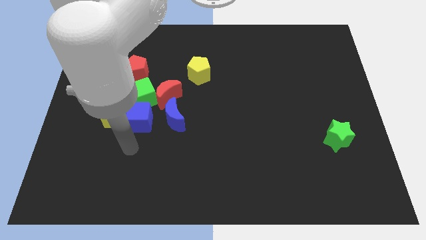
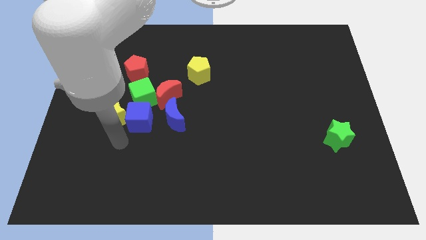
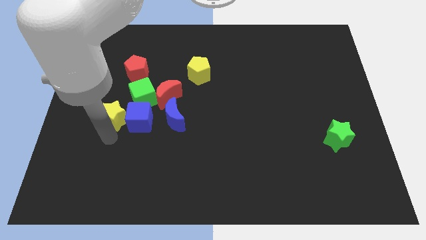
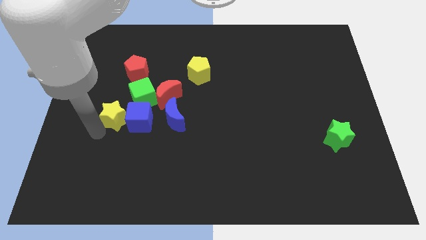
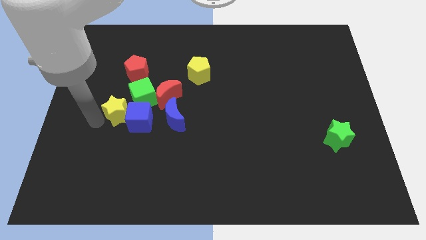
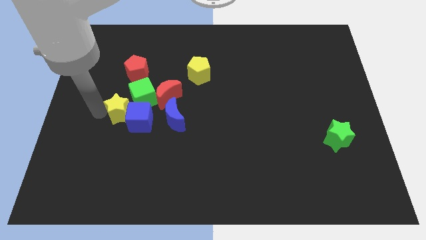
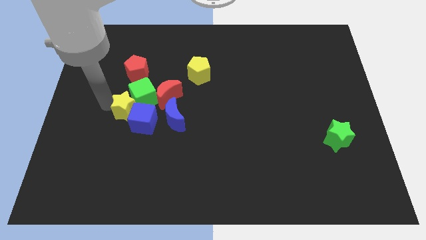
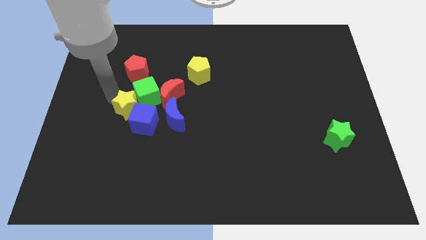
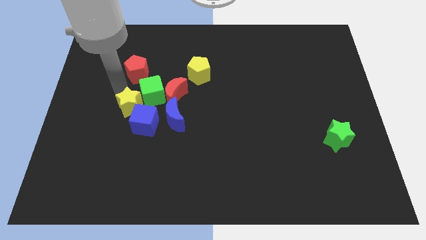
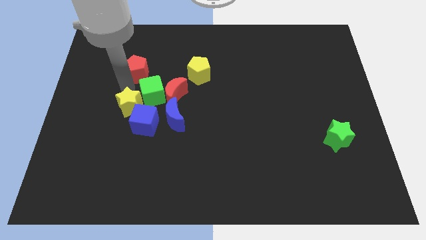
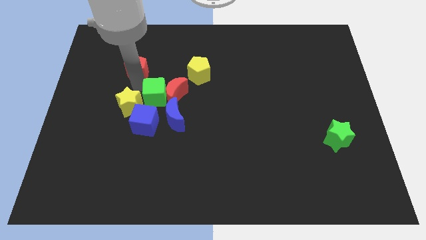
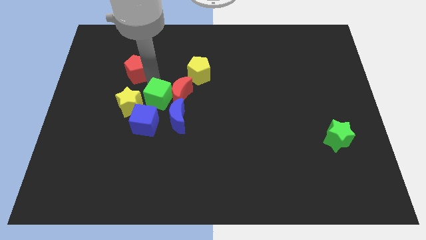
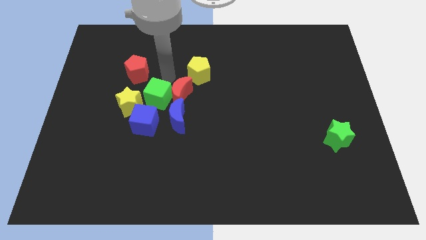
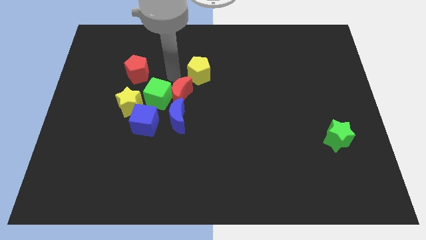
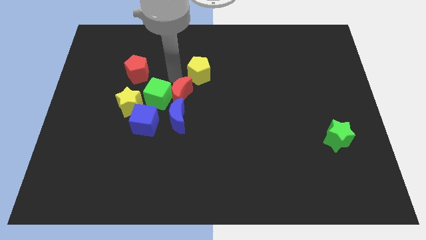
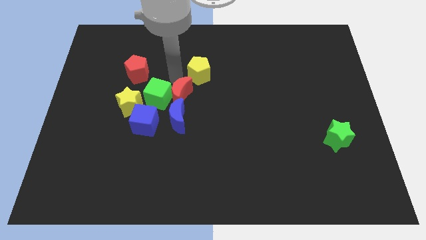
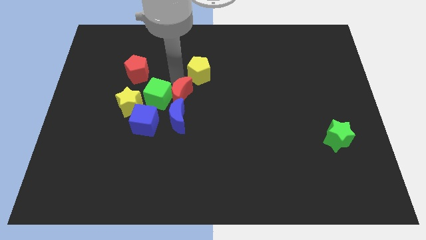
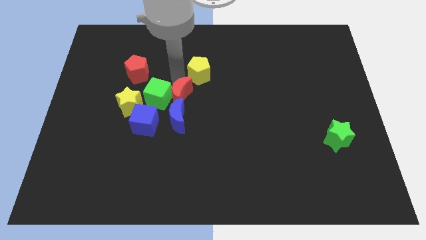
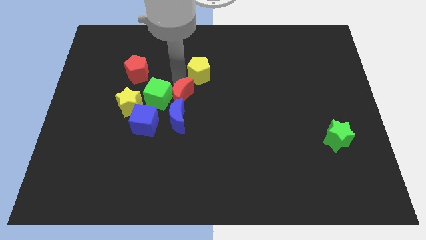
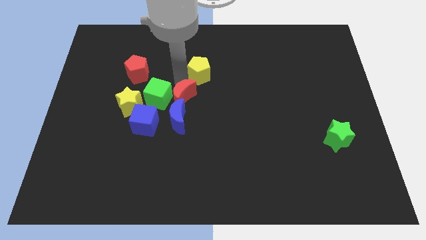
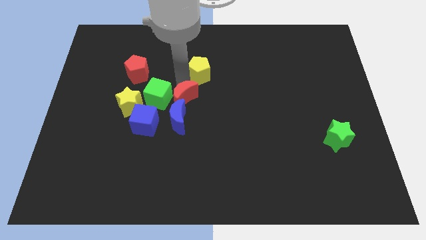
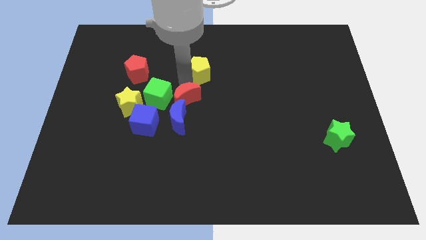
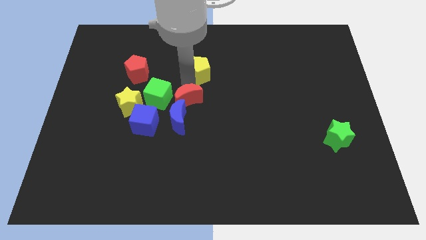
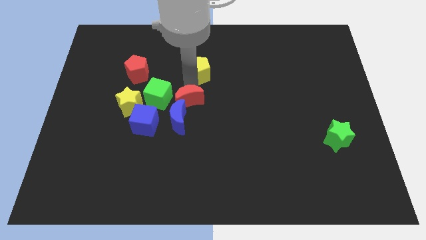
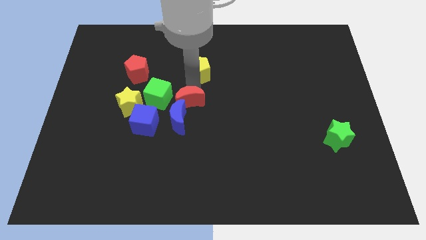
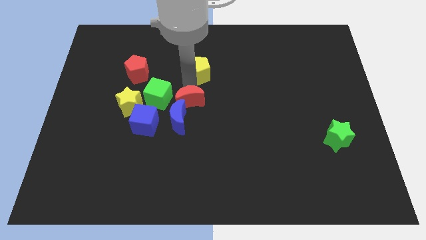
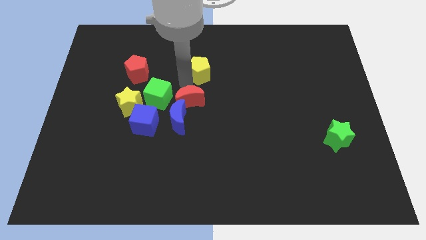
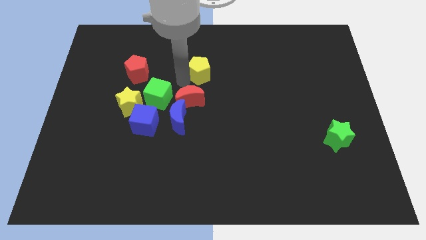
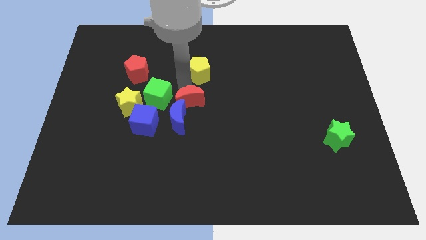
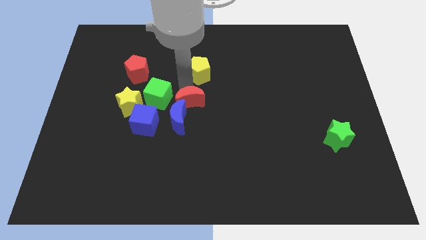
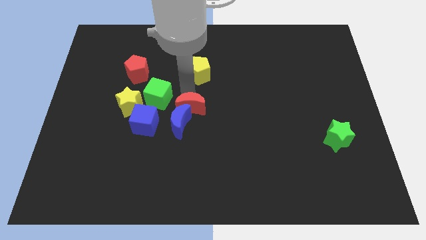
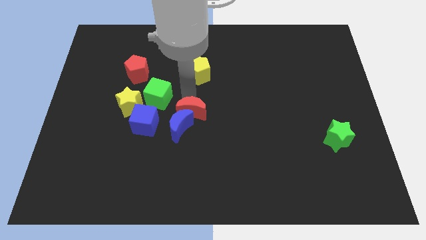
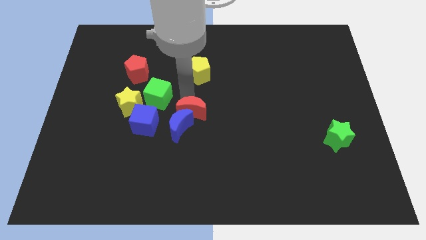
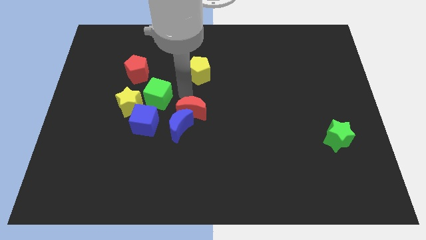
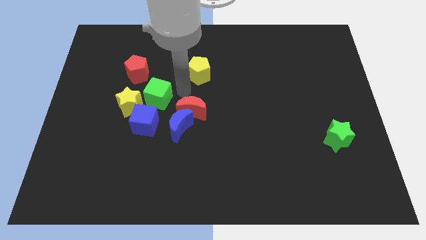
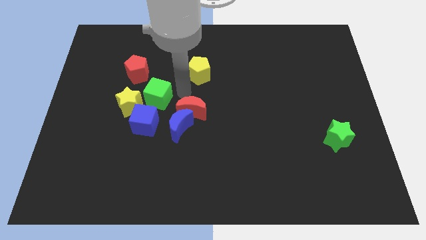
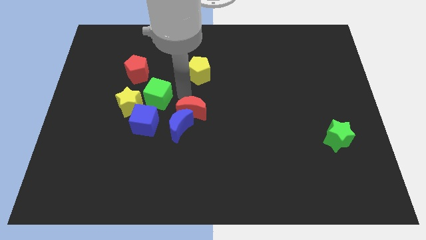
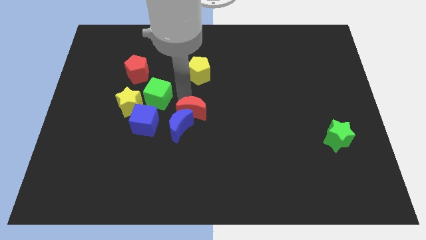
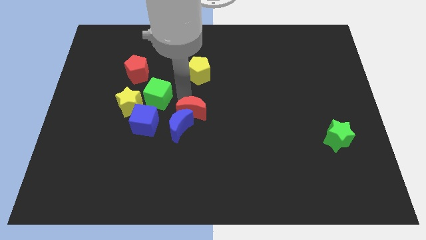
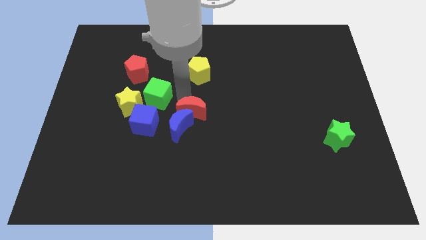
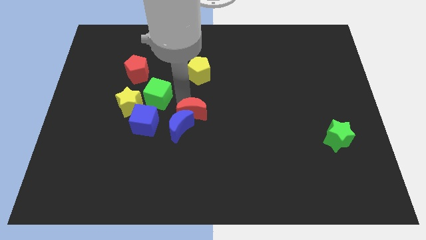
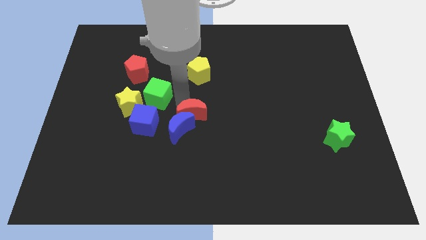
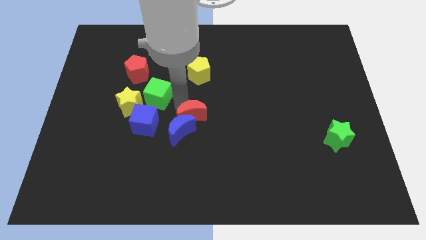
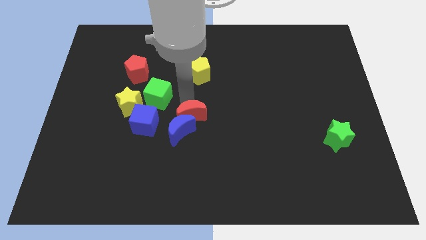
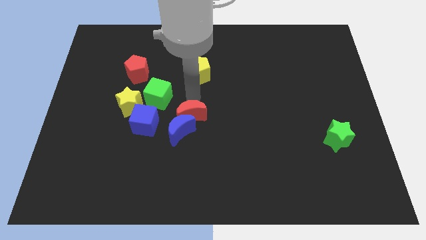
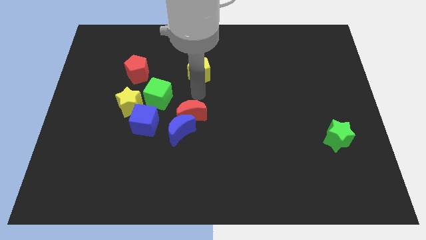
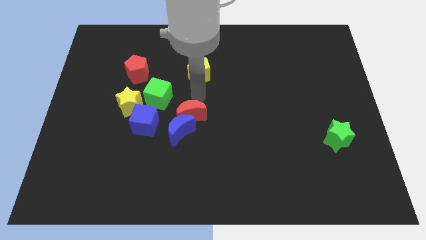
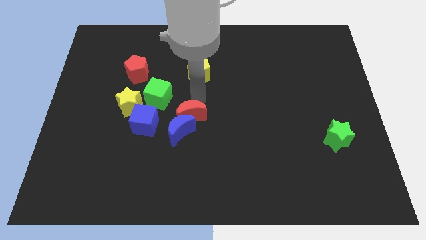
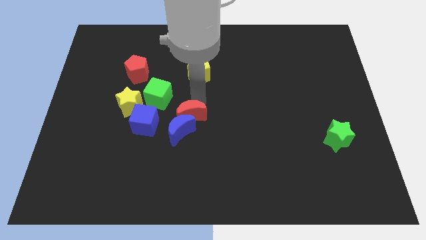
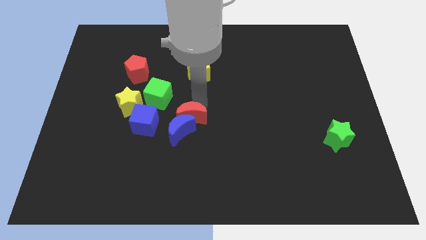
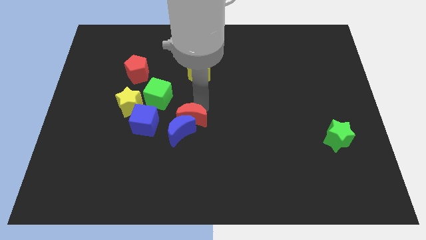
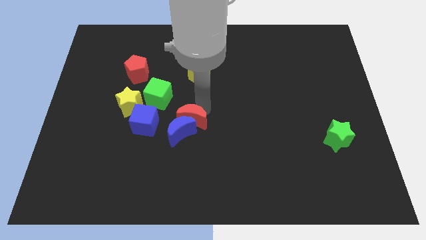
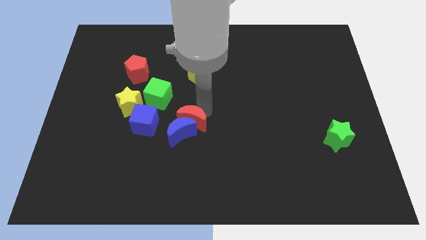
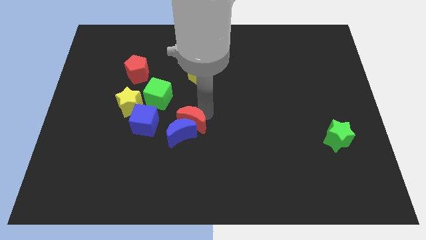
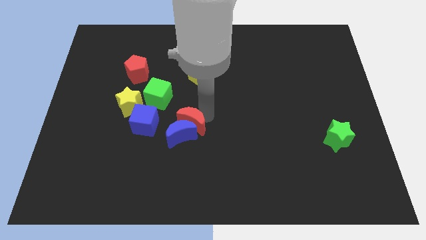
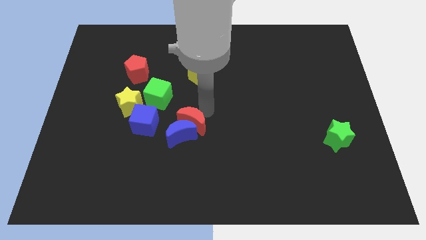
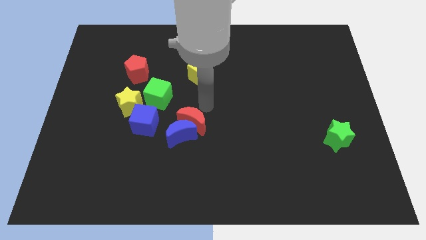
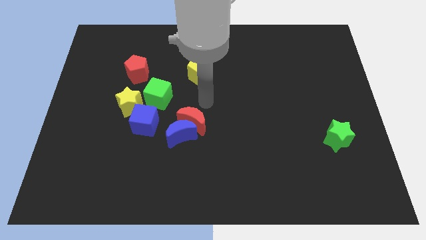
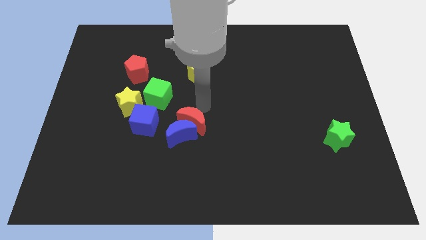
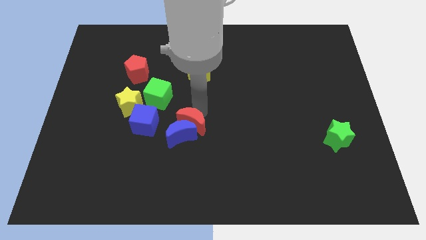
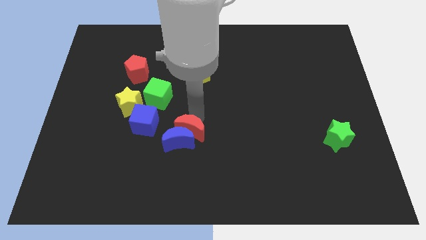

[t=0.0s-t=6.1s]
slide the red moon down a bit

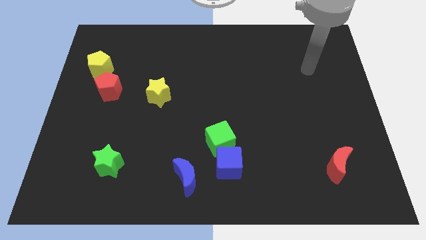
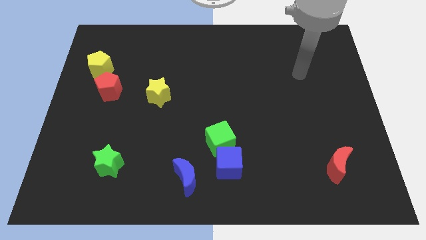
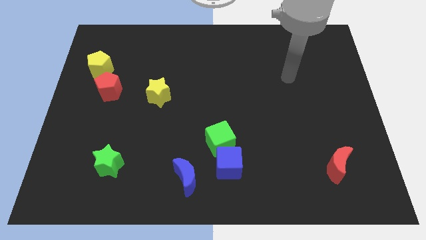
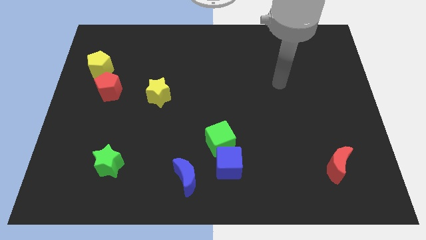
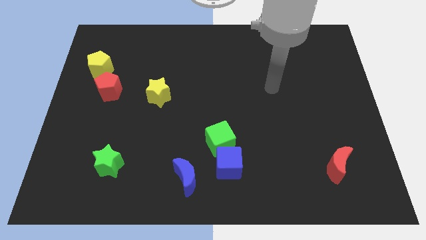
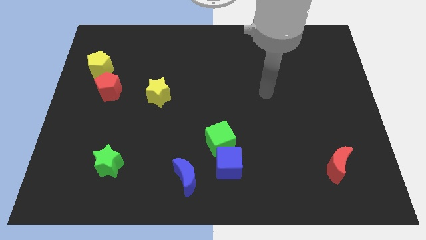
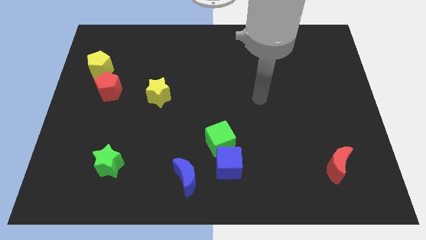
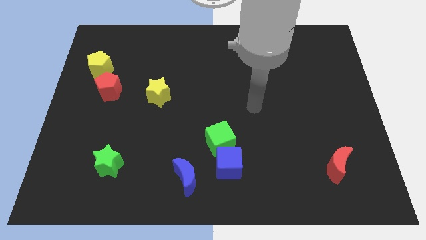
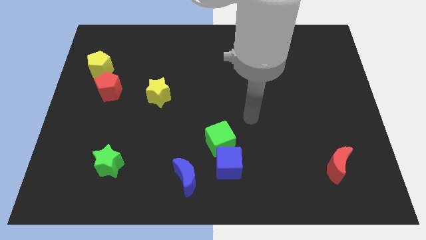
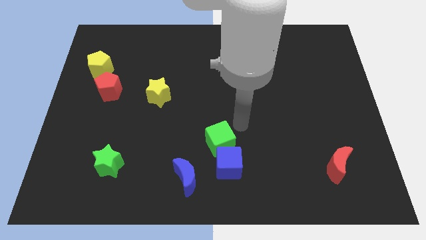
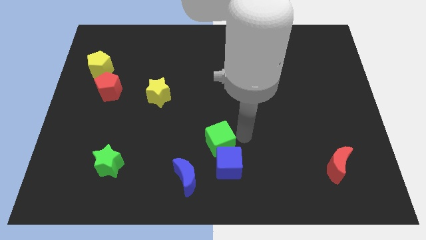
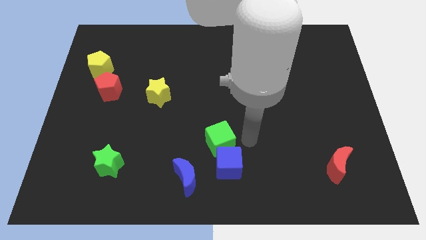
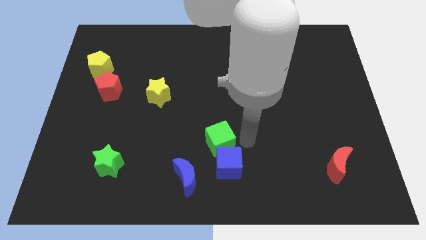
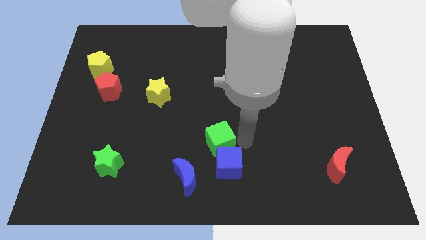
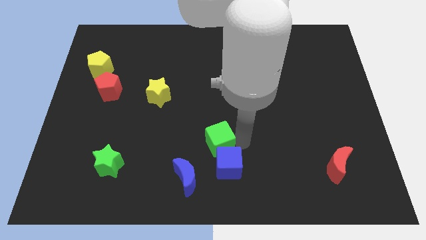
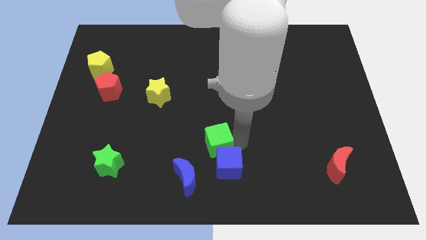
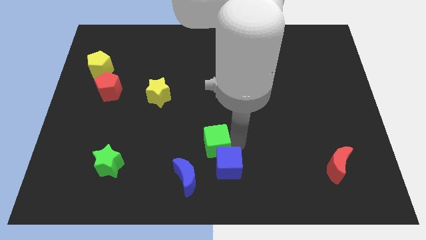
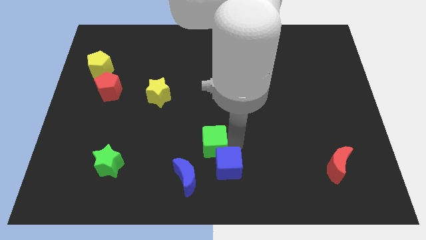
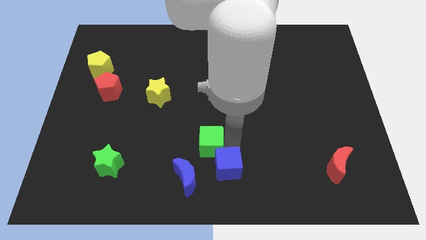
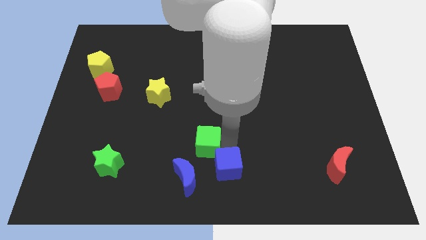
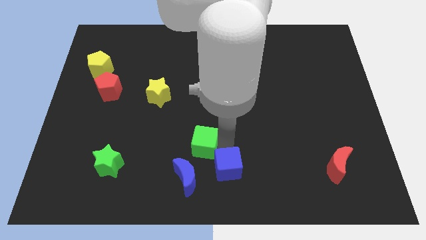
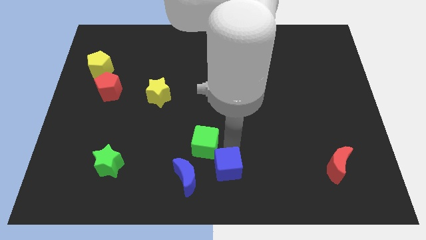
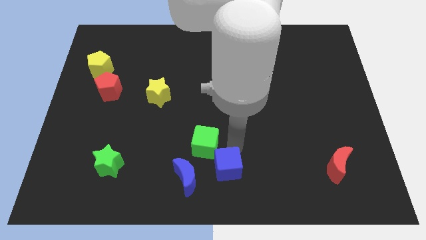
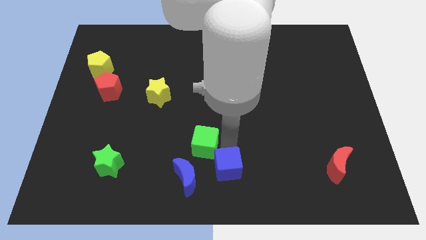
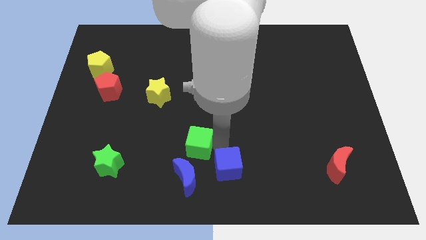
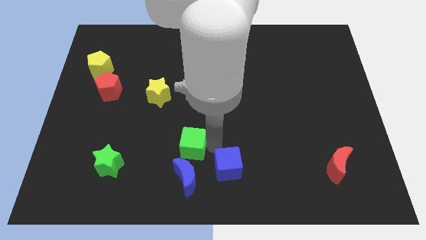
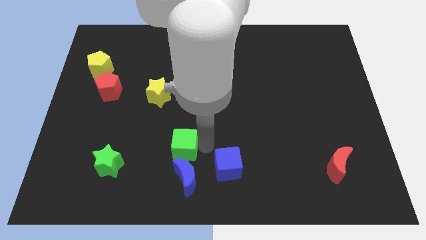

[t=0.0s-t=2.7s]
push the green cube left slightly
